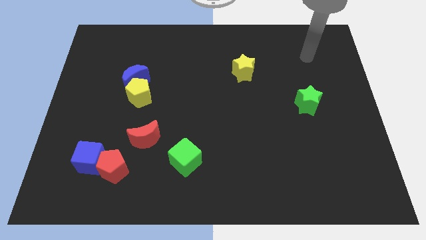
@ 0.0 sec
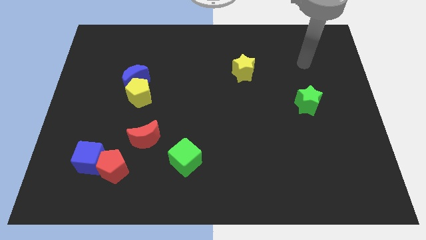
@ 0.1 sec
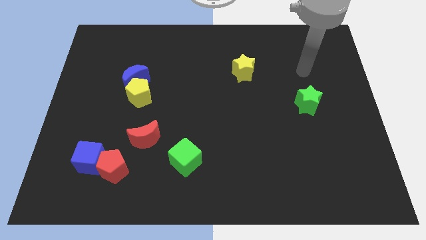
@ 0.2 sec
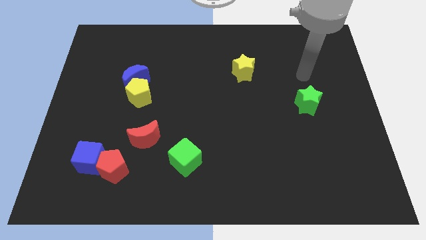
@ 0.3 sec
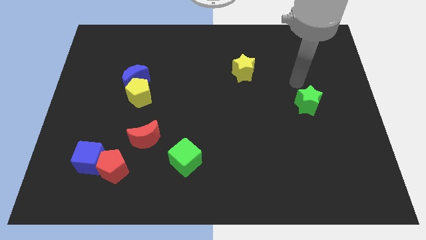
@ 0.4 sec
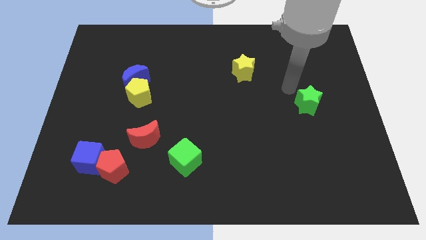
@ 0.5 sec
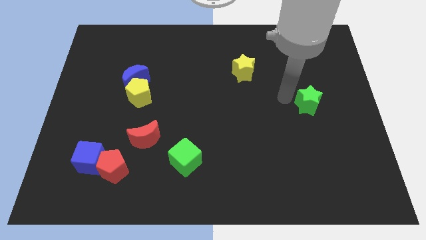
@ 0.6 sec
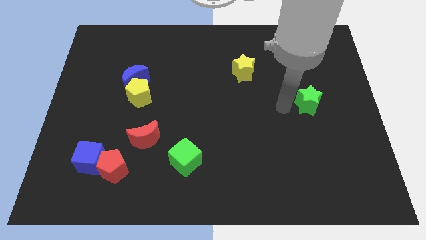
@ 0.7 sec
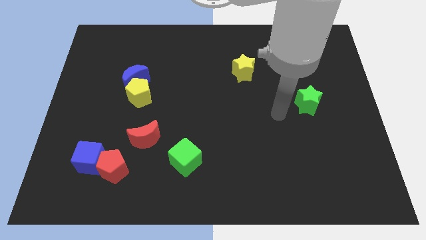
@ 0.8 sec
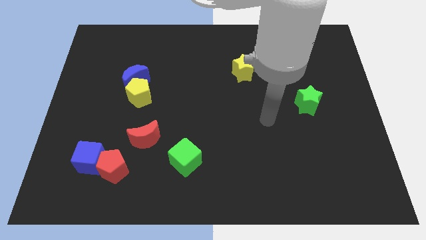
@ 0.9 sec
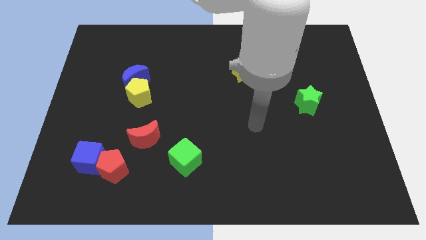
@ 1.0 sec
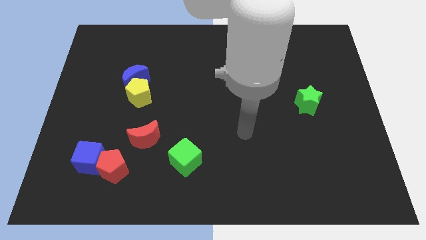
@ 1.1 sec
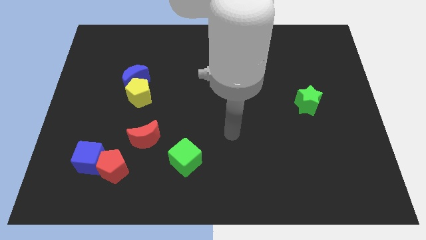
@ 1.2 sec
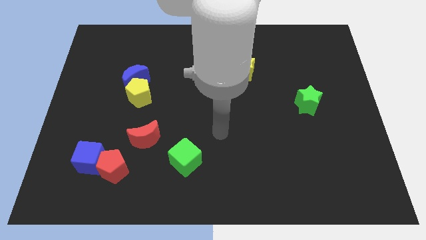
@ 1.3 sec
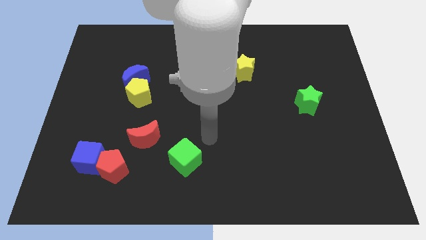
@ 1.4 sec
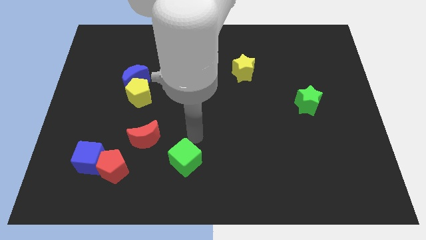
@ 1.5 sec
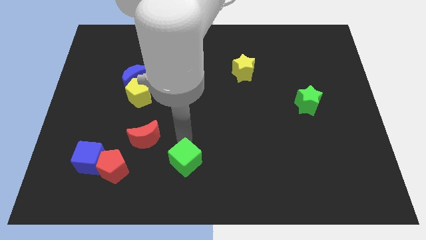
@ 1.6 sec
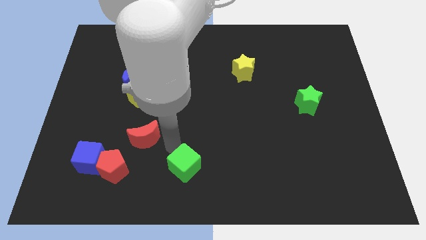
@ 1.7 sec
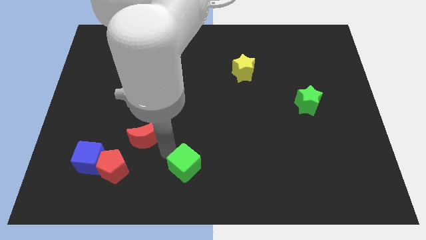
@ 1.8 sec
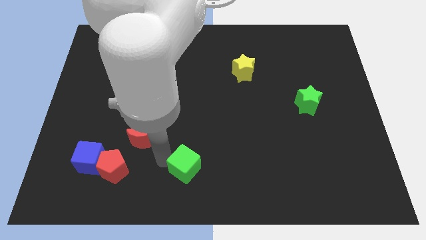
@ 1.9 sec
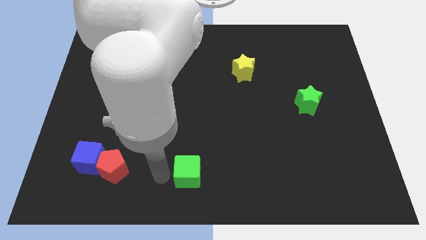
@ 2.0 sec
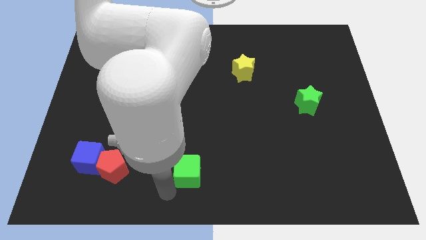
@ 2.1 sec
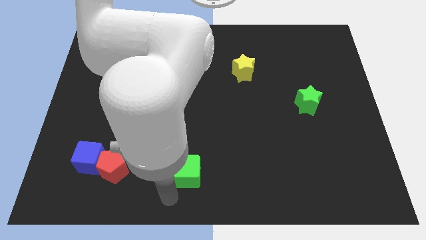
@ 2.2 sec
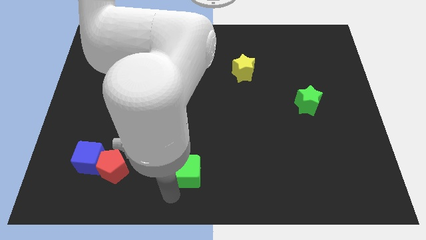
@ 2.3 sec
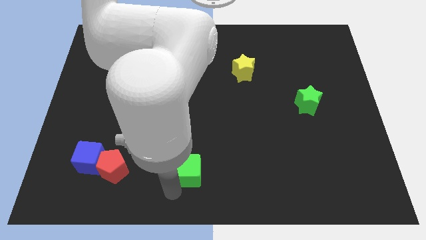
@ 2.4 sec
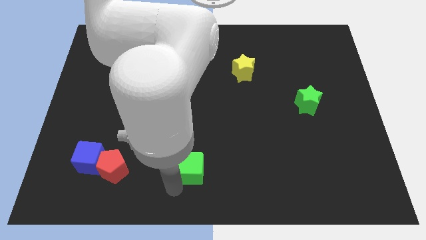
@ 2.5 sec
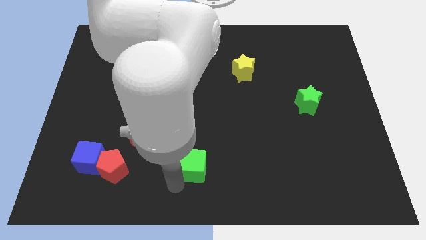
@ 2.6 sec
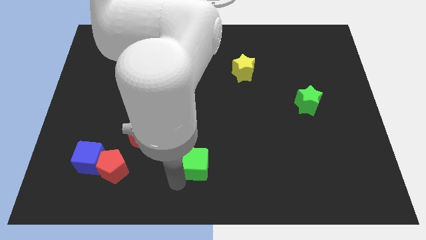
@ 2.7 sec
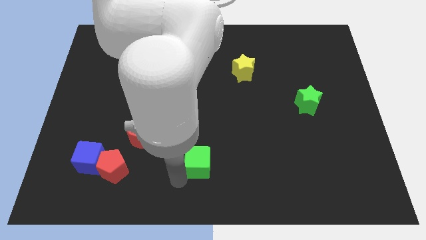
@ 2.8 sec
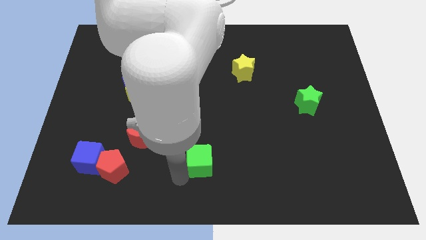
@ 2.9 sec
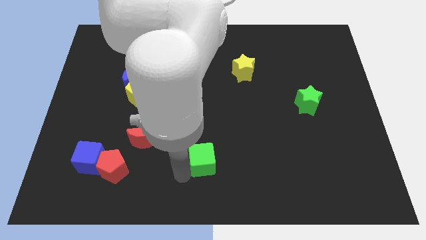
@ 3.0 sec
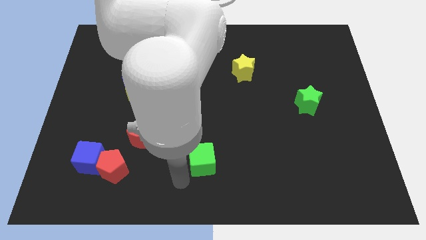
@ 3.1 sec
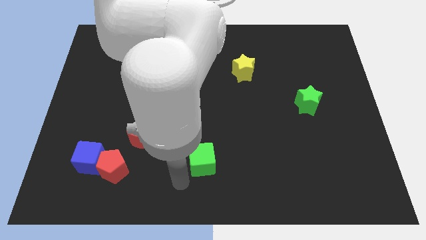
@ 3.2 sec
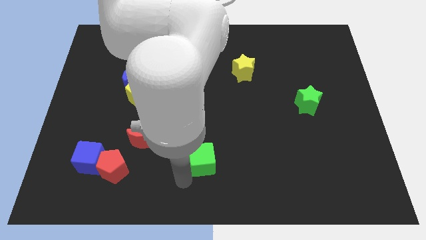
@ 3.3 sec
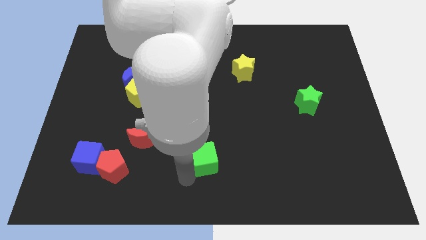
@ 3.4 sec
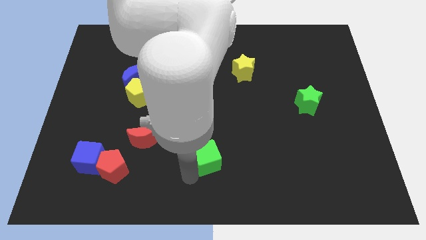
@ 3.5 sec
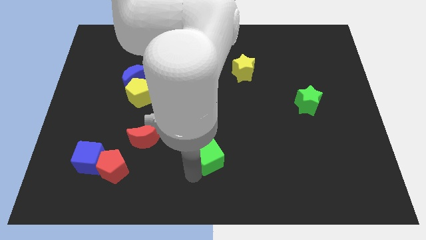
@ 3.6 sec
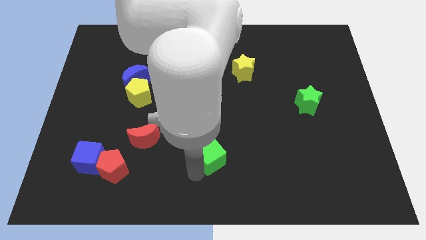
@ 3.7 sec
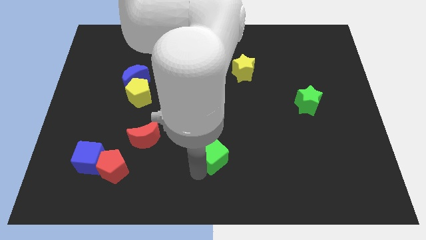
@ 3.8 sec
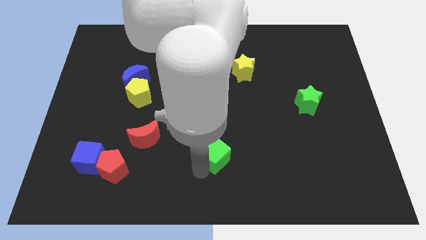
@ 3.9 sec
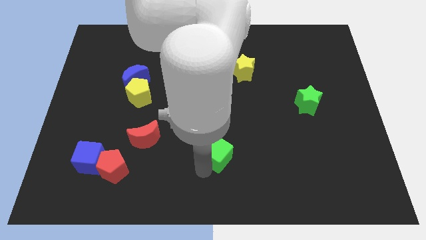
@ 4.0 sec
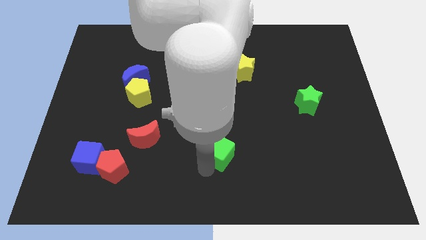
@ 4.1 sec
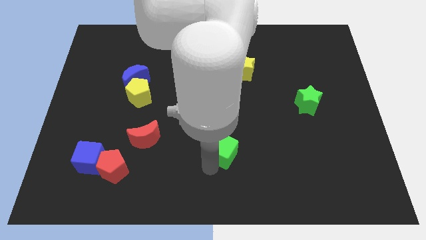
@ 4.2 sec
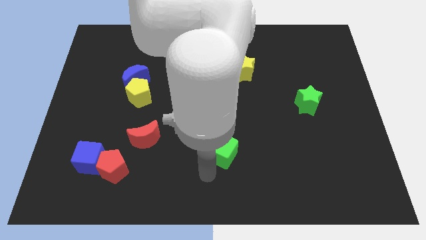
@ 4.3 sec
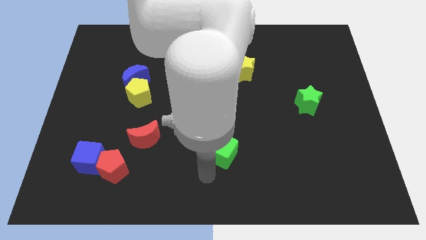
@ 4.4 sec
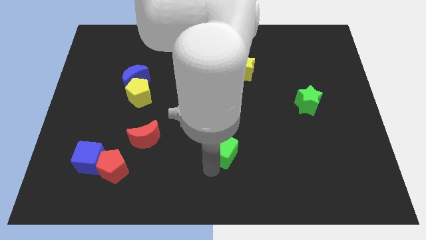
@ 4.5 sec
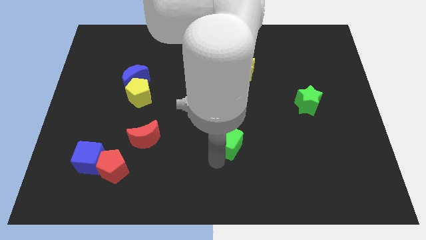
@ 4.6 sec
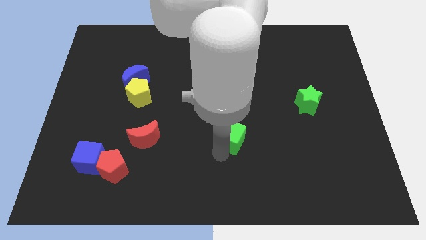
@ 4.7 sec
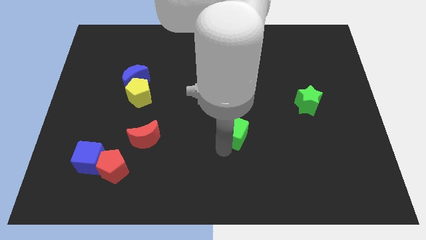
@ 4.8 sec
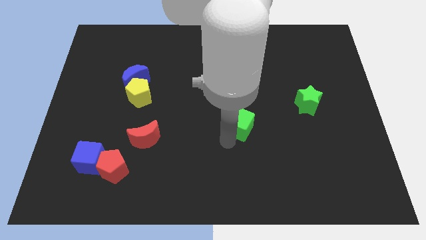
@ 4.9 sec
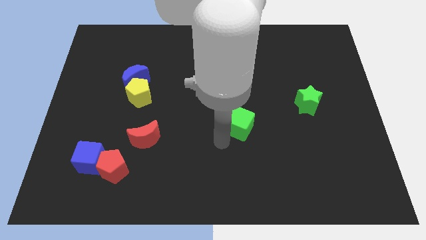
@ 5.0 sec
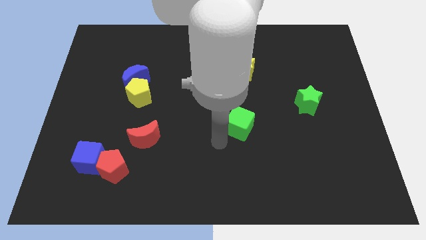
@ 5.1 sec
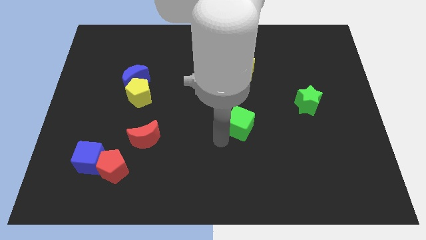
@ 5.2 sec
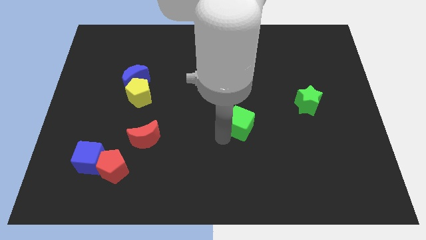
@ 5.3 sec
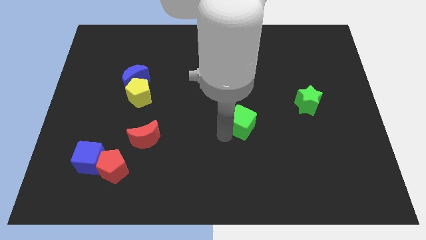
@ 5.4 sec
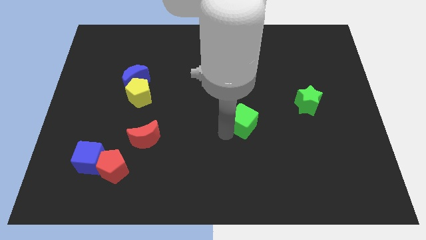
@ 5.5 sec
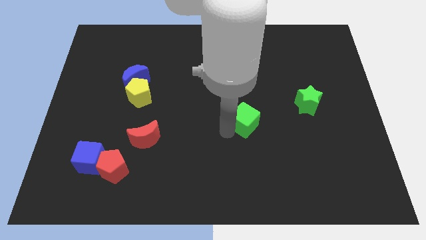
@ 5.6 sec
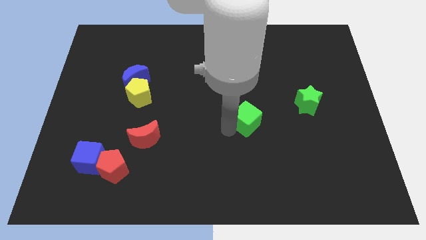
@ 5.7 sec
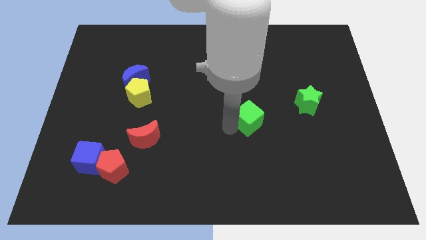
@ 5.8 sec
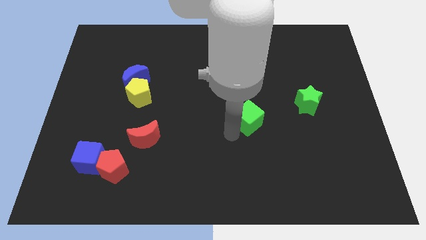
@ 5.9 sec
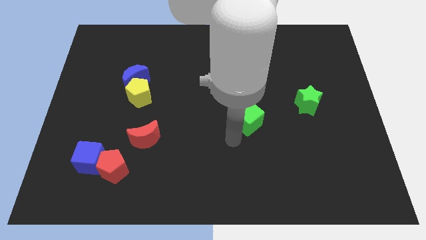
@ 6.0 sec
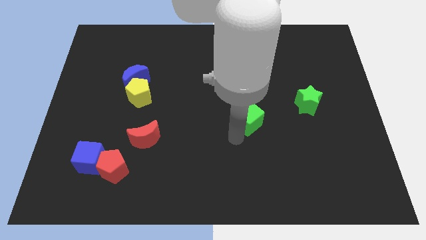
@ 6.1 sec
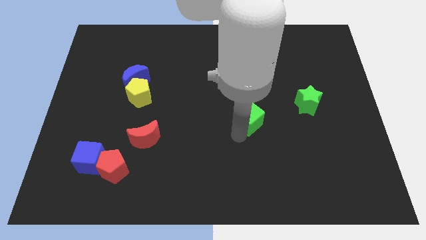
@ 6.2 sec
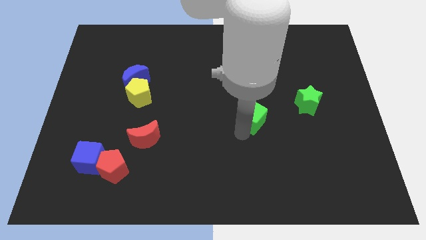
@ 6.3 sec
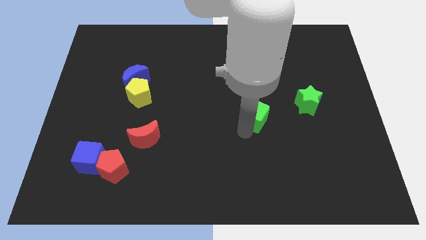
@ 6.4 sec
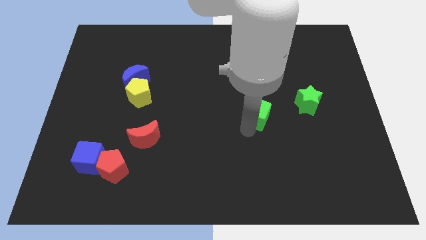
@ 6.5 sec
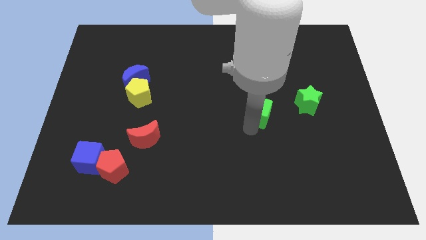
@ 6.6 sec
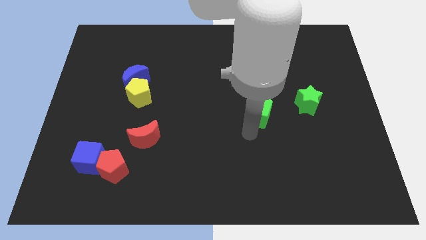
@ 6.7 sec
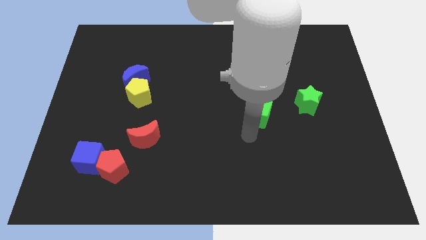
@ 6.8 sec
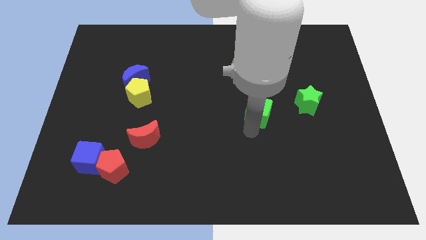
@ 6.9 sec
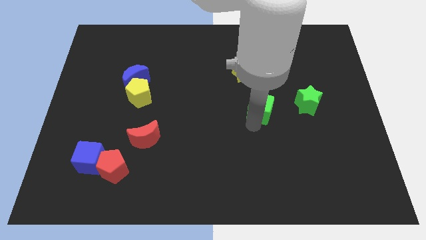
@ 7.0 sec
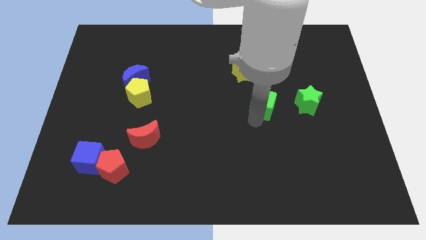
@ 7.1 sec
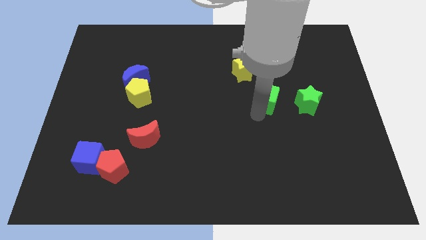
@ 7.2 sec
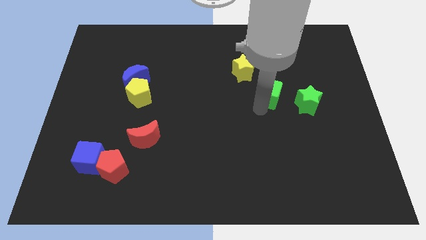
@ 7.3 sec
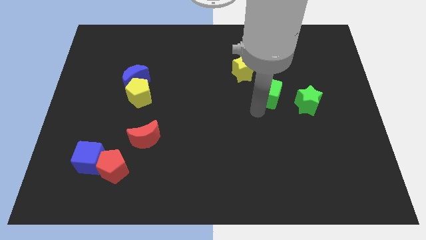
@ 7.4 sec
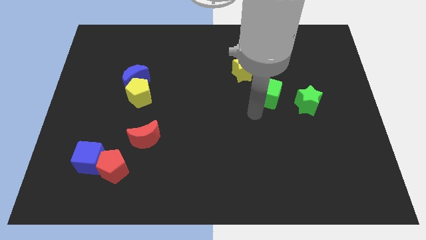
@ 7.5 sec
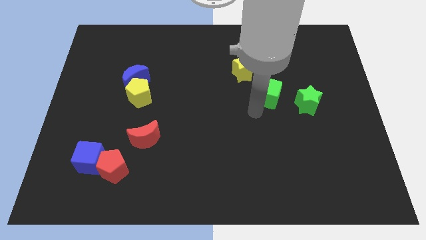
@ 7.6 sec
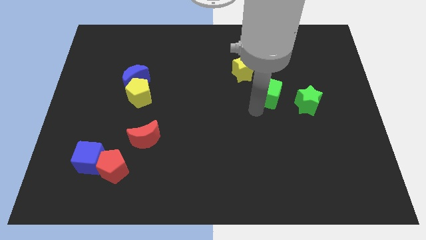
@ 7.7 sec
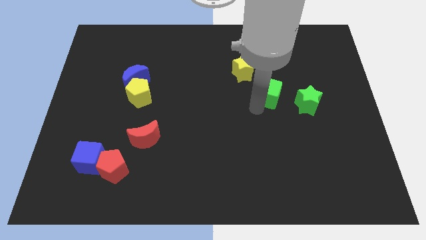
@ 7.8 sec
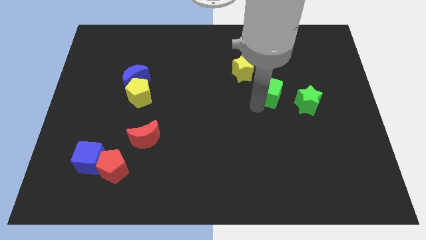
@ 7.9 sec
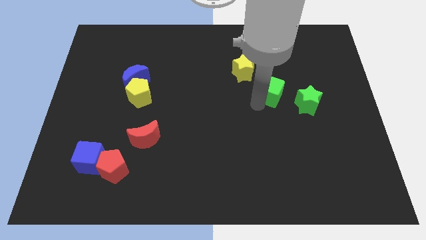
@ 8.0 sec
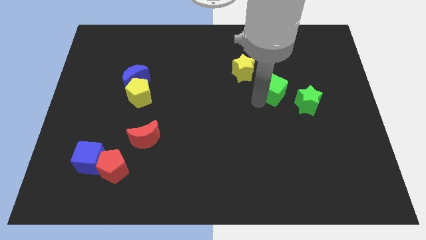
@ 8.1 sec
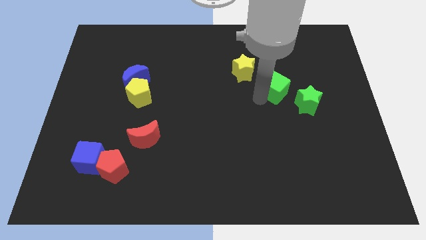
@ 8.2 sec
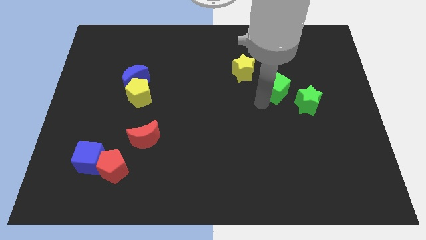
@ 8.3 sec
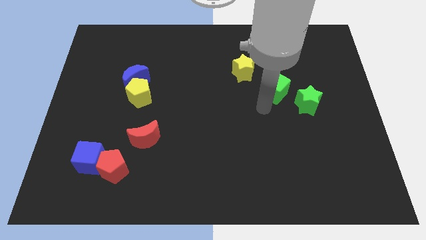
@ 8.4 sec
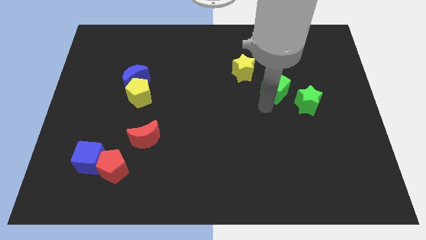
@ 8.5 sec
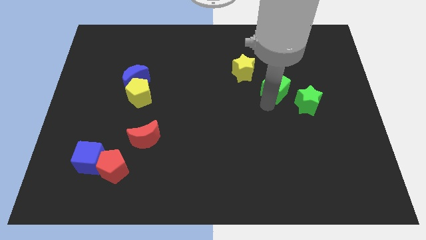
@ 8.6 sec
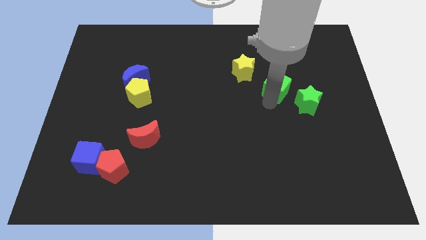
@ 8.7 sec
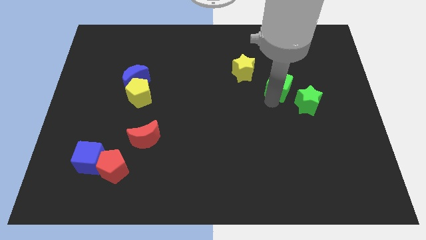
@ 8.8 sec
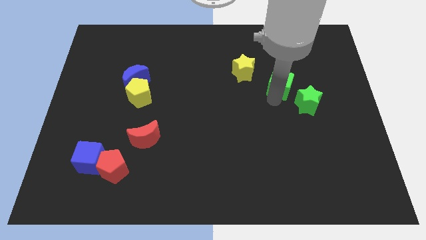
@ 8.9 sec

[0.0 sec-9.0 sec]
push the green cube to the right of the yellow star
